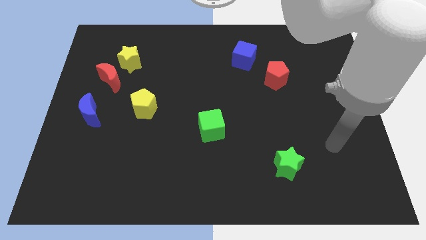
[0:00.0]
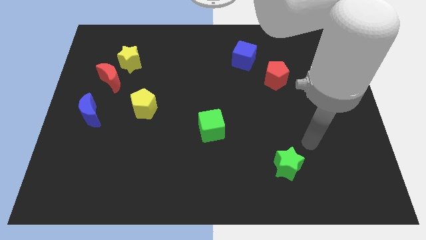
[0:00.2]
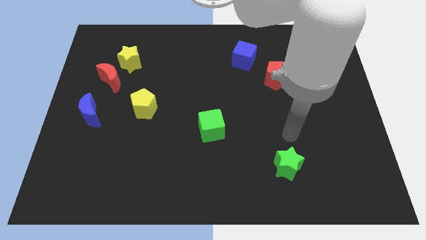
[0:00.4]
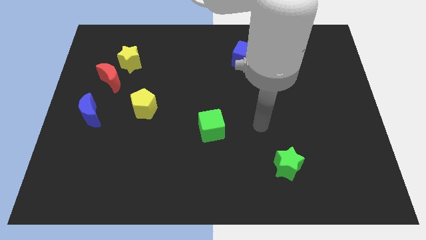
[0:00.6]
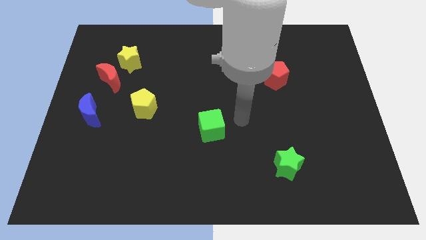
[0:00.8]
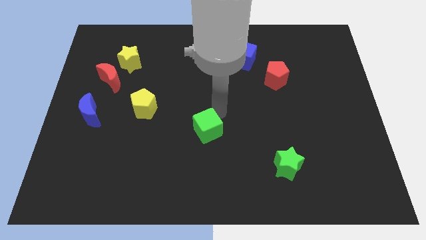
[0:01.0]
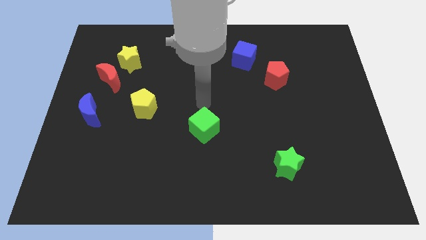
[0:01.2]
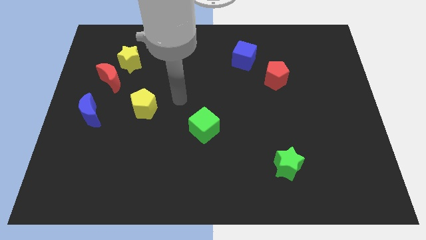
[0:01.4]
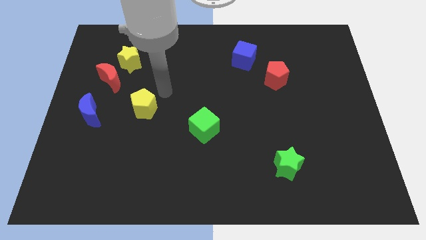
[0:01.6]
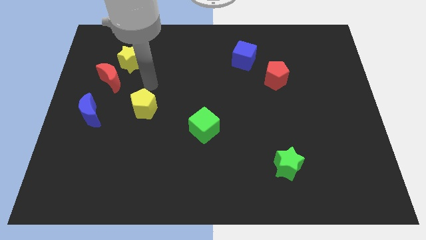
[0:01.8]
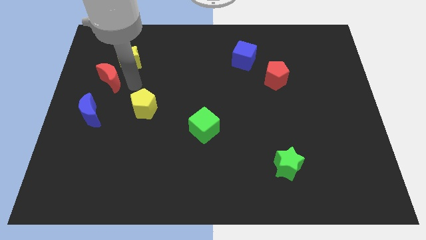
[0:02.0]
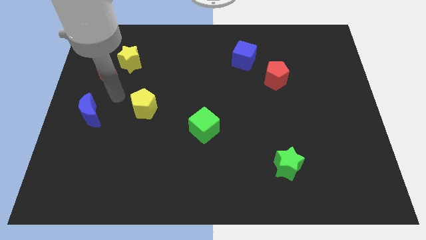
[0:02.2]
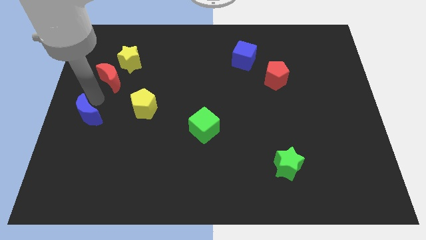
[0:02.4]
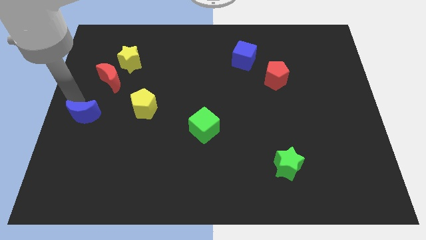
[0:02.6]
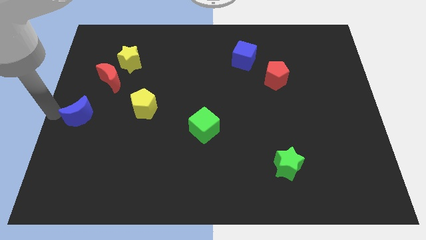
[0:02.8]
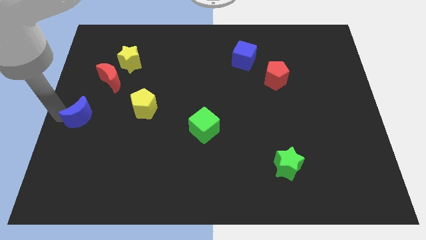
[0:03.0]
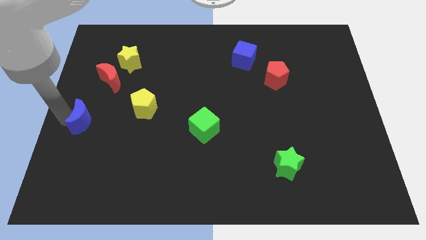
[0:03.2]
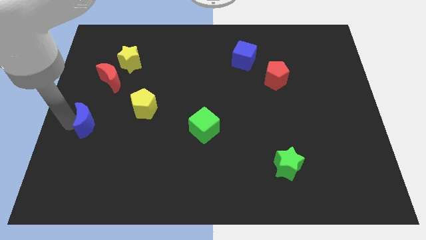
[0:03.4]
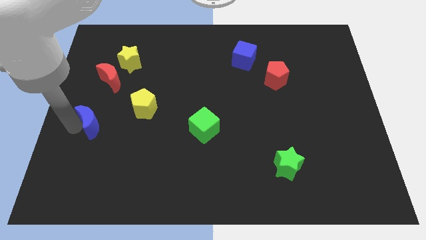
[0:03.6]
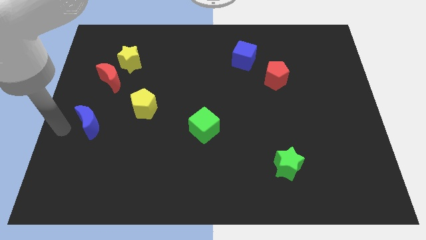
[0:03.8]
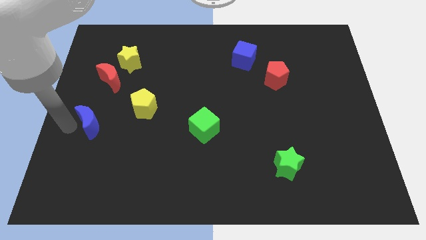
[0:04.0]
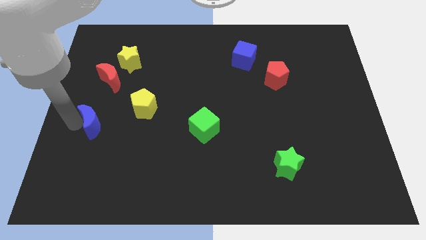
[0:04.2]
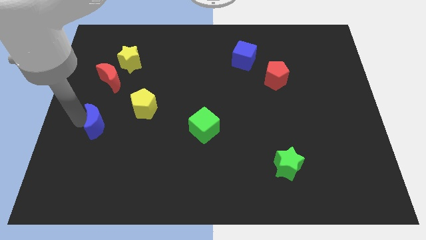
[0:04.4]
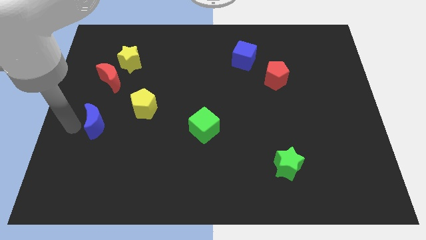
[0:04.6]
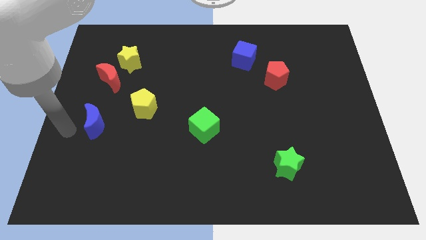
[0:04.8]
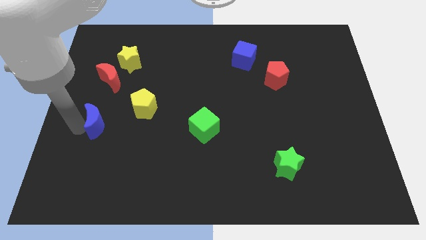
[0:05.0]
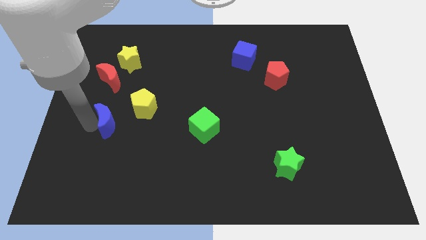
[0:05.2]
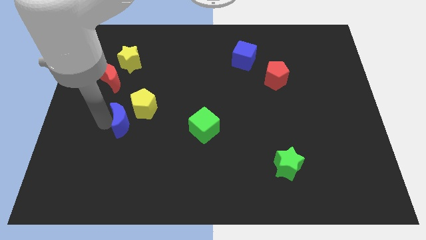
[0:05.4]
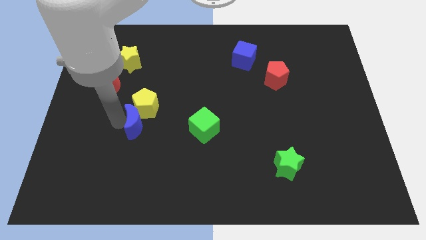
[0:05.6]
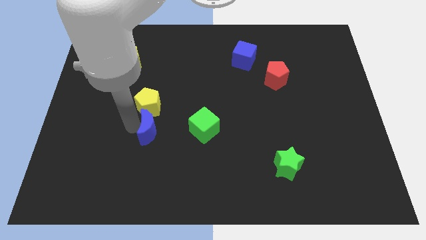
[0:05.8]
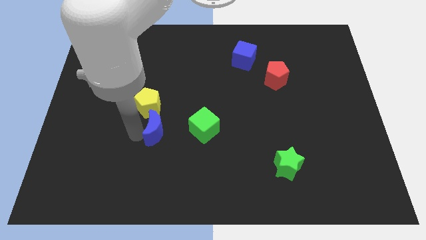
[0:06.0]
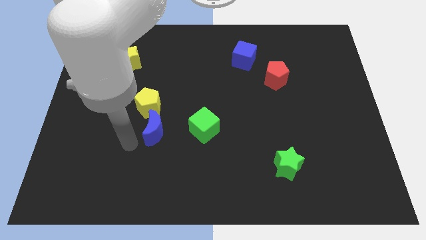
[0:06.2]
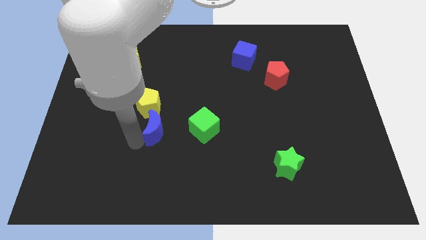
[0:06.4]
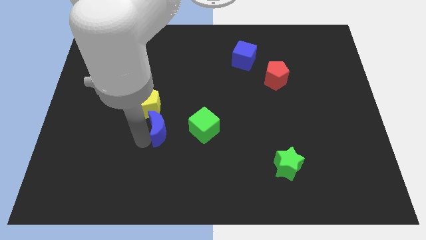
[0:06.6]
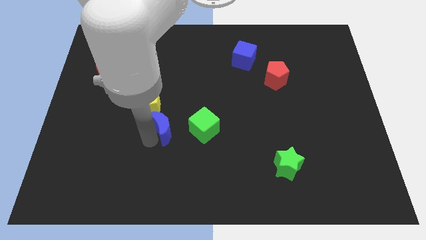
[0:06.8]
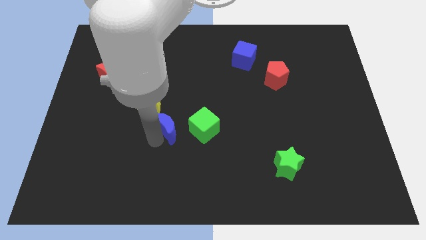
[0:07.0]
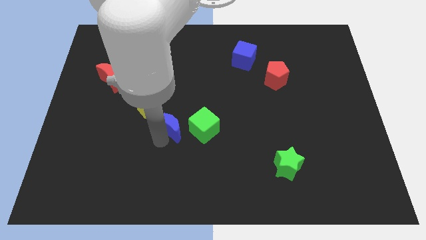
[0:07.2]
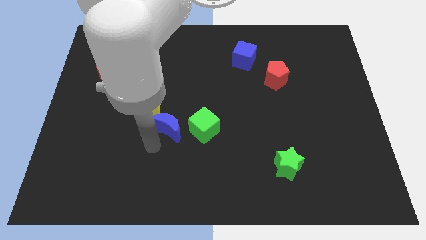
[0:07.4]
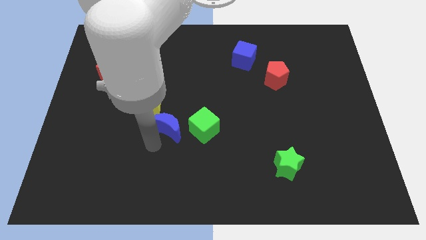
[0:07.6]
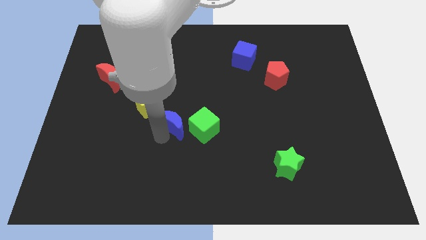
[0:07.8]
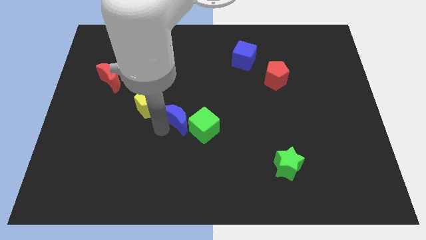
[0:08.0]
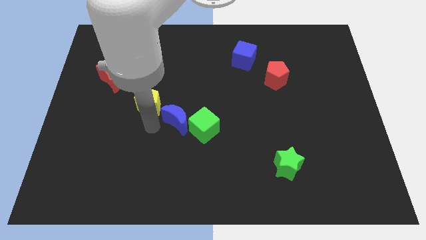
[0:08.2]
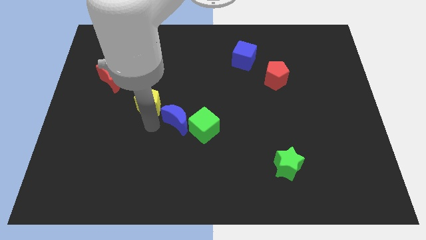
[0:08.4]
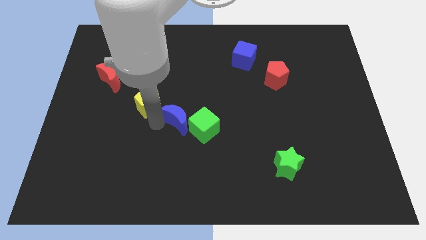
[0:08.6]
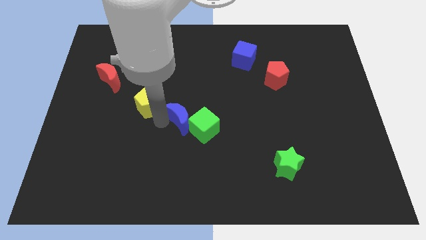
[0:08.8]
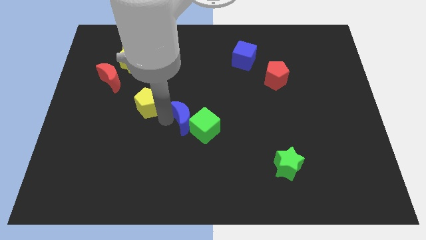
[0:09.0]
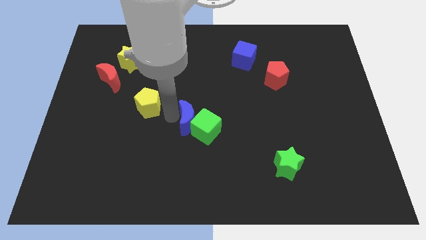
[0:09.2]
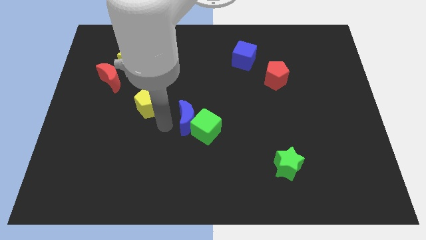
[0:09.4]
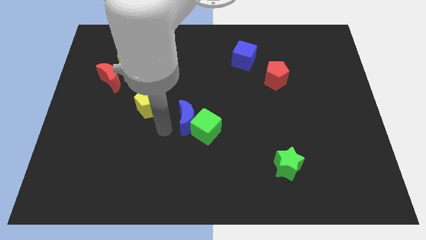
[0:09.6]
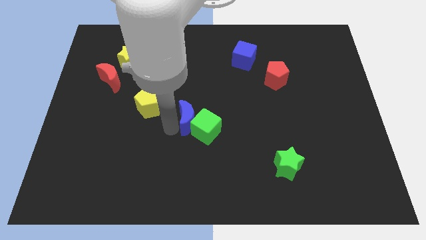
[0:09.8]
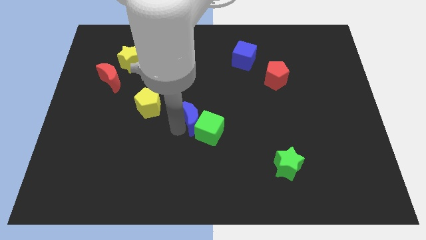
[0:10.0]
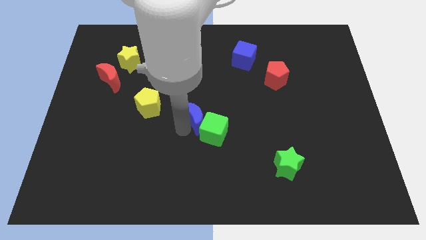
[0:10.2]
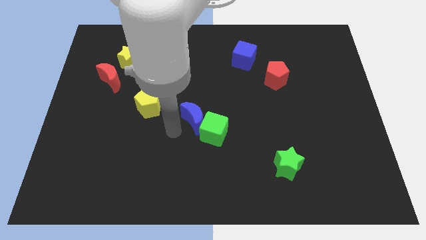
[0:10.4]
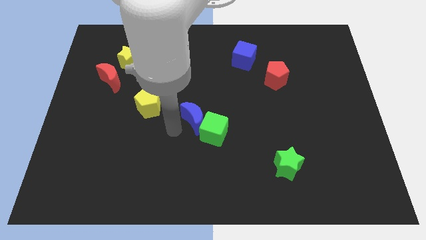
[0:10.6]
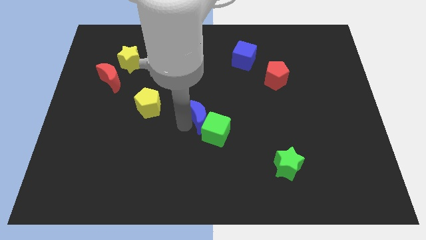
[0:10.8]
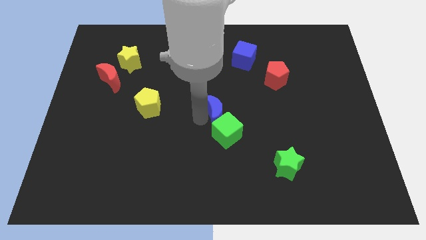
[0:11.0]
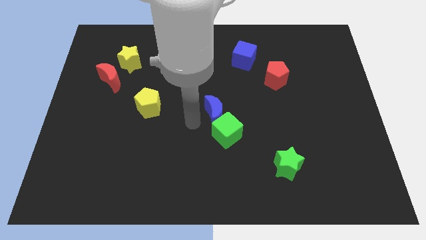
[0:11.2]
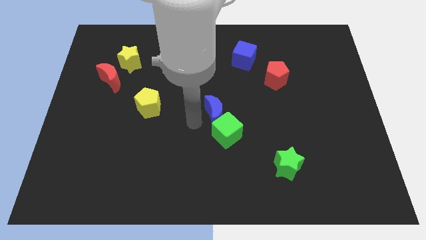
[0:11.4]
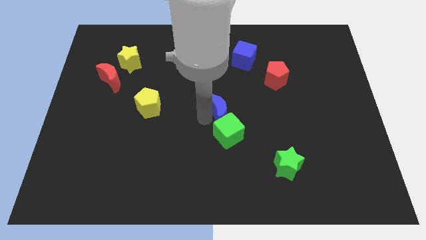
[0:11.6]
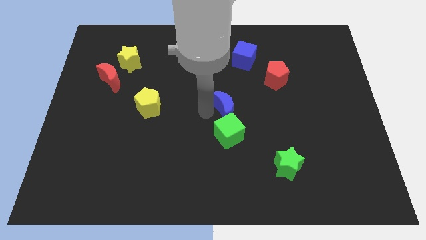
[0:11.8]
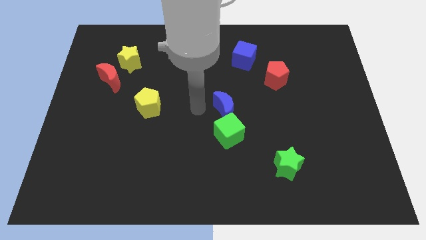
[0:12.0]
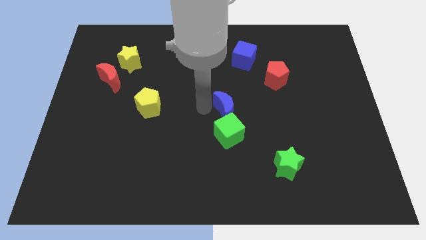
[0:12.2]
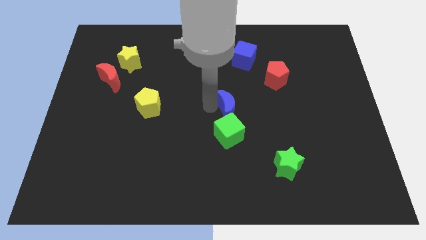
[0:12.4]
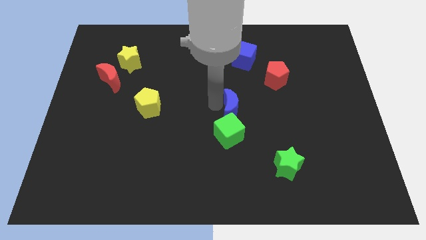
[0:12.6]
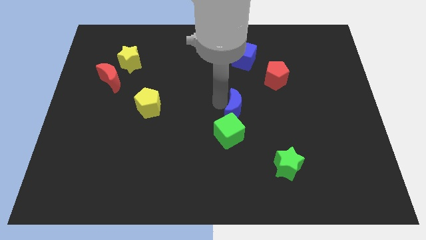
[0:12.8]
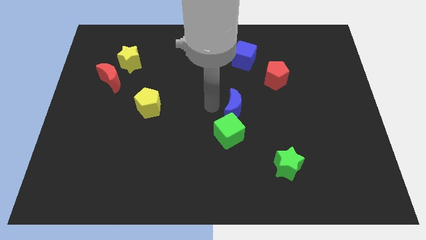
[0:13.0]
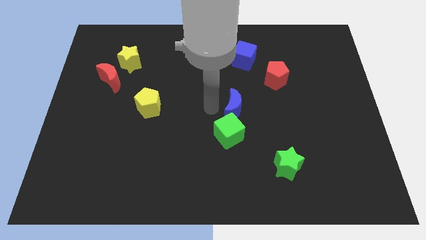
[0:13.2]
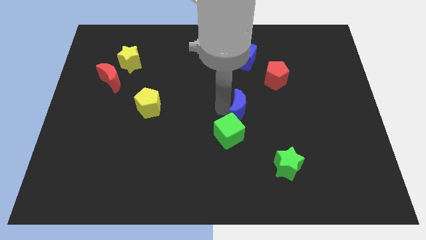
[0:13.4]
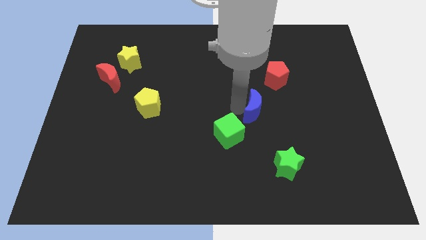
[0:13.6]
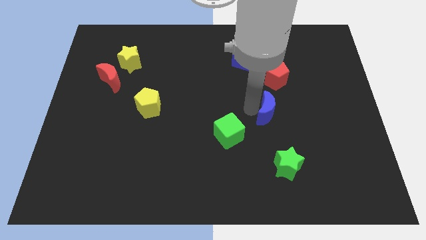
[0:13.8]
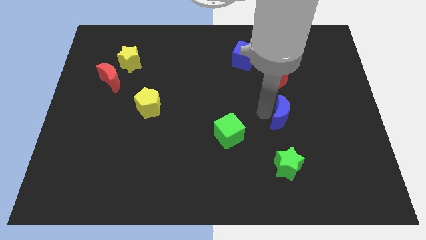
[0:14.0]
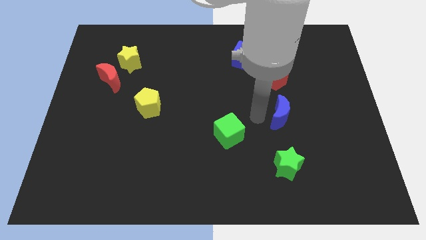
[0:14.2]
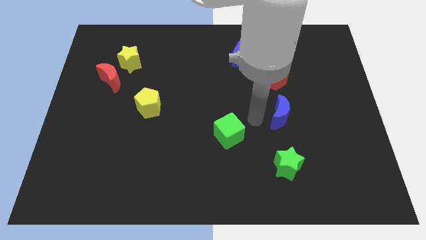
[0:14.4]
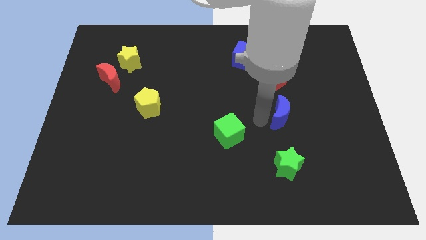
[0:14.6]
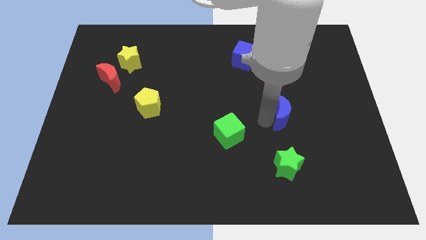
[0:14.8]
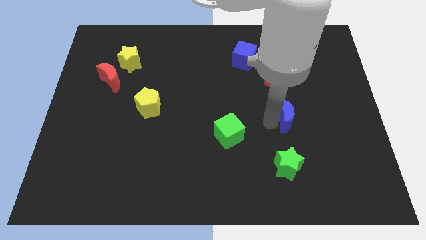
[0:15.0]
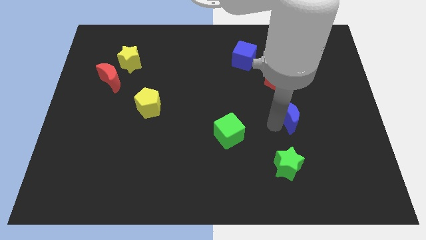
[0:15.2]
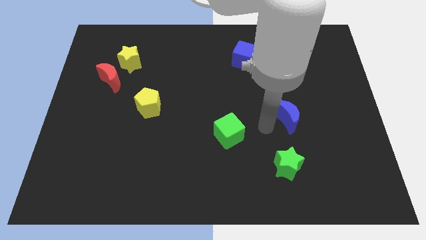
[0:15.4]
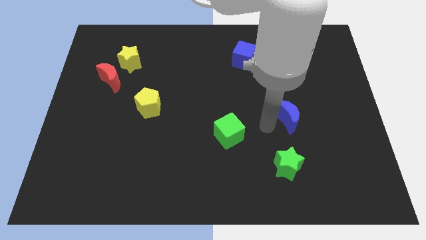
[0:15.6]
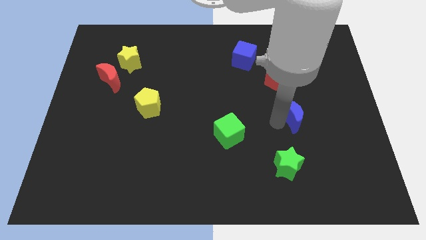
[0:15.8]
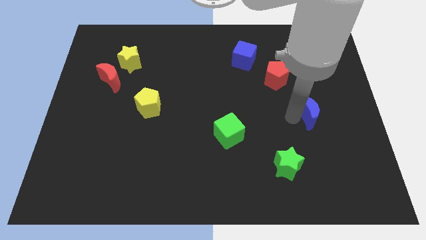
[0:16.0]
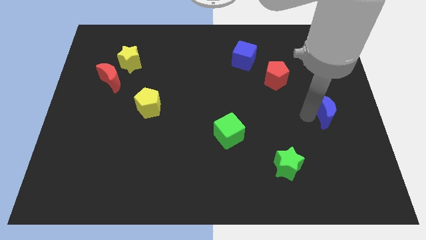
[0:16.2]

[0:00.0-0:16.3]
push the blue moon to the center right
